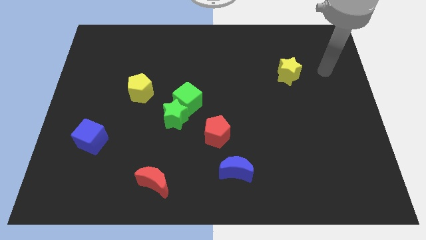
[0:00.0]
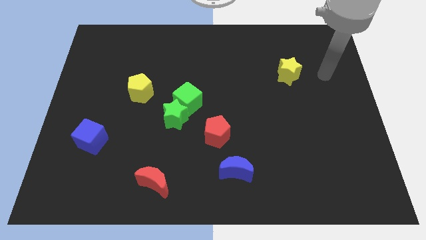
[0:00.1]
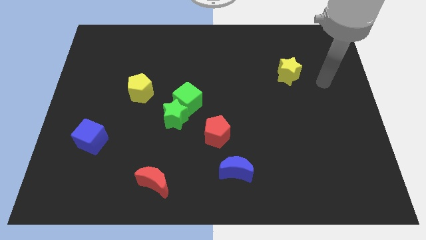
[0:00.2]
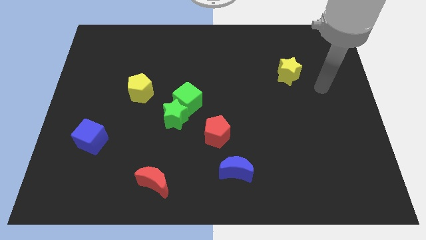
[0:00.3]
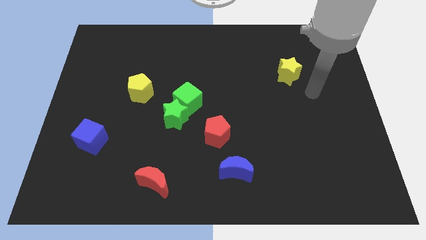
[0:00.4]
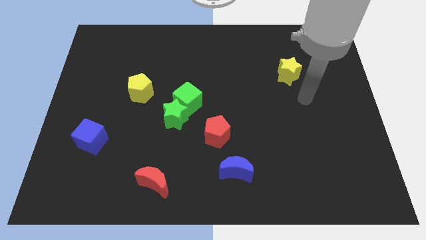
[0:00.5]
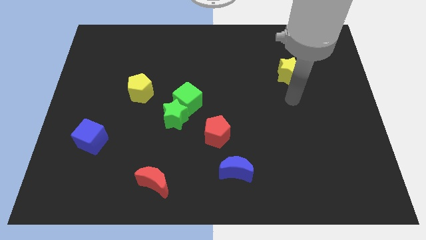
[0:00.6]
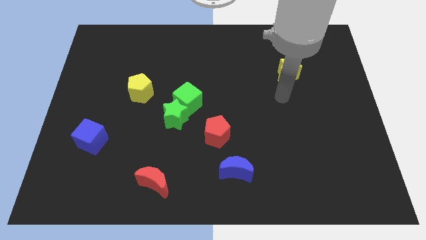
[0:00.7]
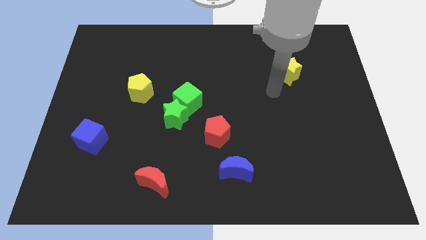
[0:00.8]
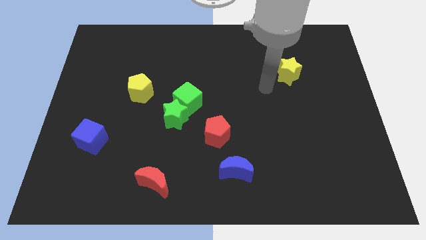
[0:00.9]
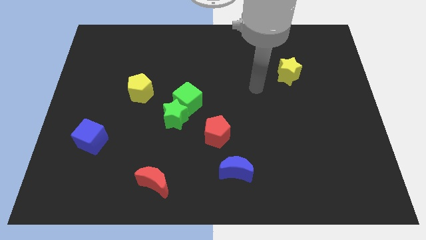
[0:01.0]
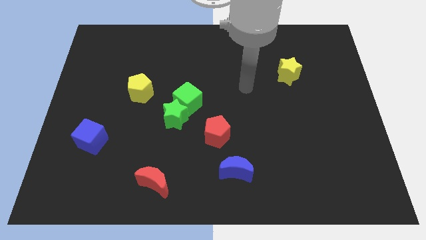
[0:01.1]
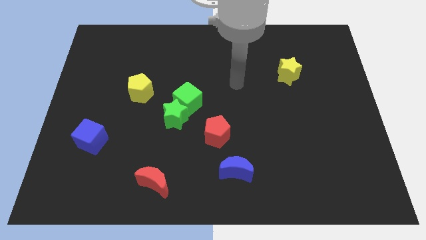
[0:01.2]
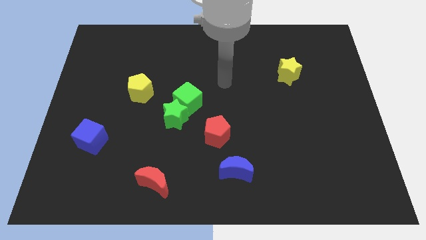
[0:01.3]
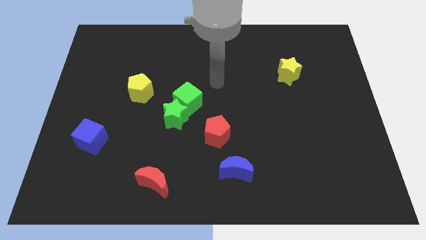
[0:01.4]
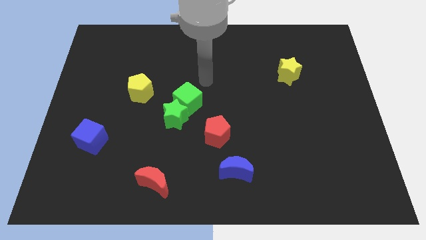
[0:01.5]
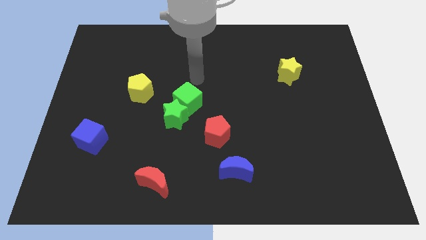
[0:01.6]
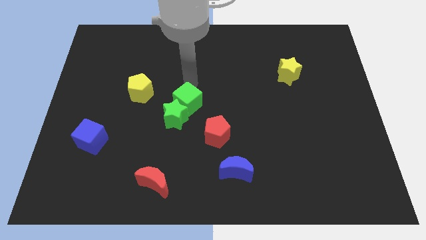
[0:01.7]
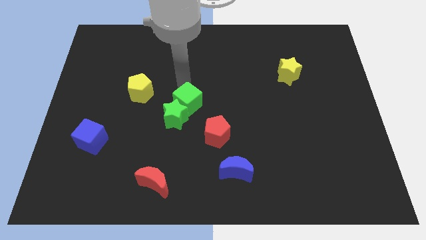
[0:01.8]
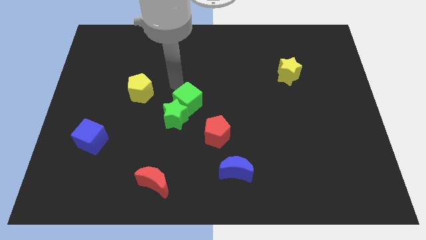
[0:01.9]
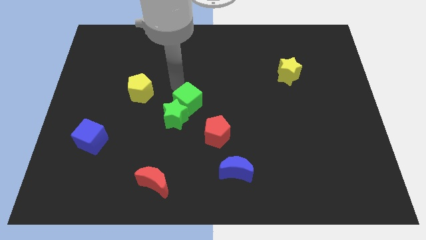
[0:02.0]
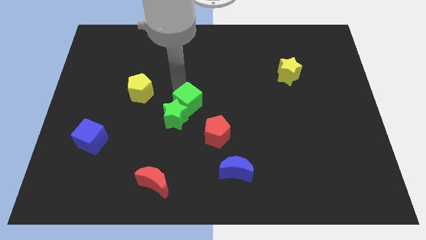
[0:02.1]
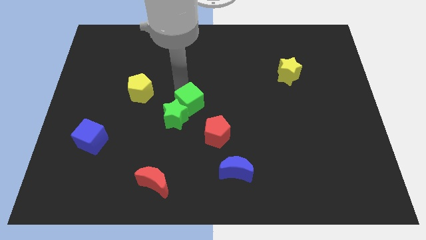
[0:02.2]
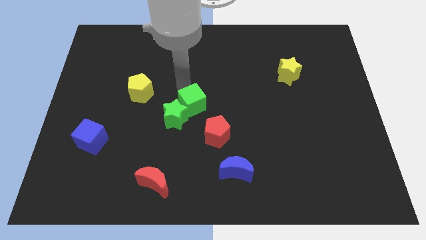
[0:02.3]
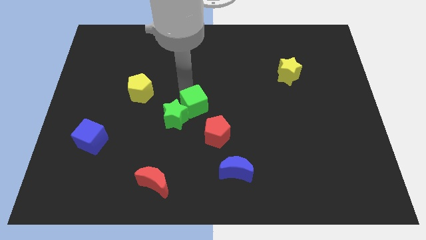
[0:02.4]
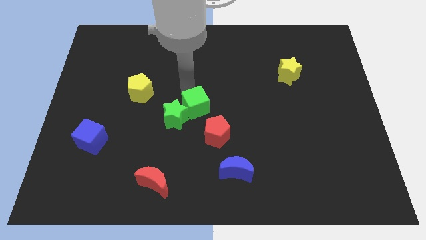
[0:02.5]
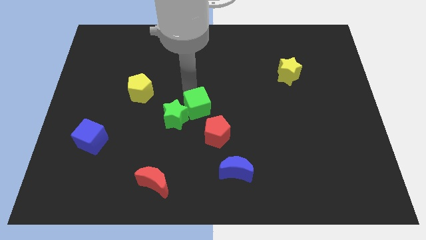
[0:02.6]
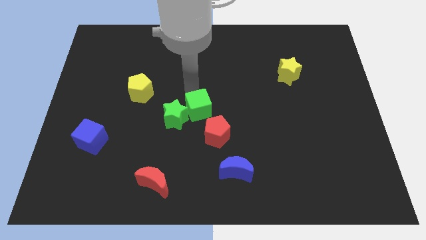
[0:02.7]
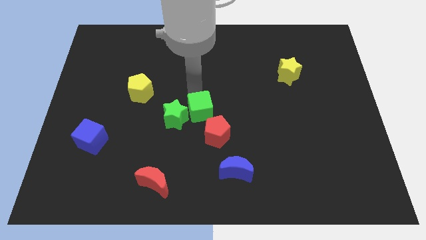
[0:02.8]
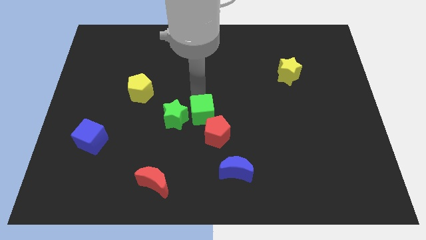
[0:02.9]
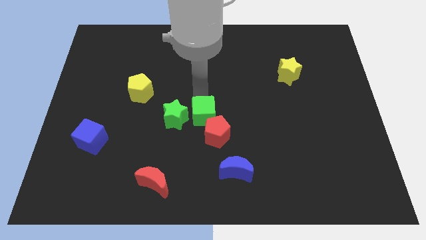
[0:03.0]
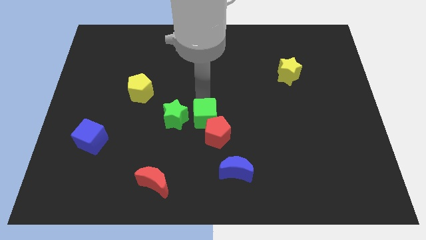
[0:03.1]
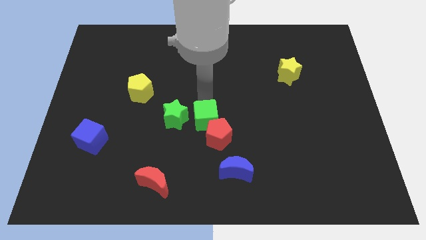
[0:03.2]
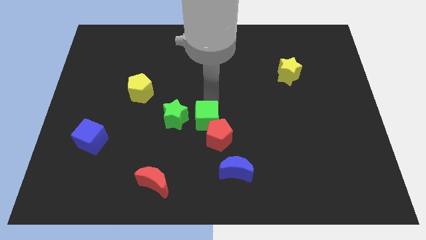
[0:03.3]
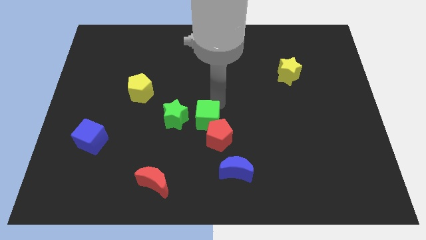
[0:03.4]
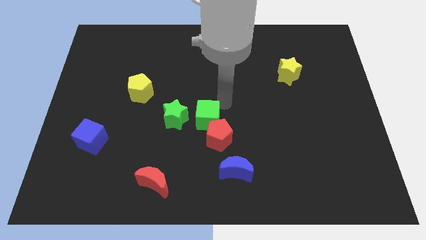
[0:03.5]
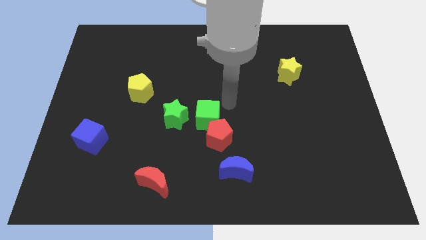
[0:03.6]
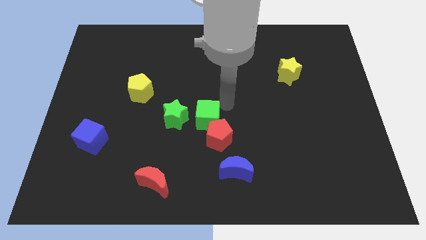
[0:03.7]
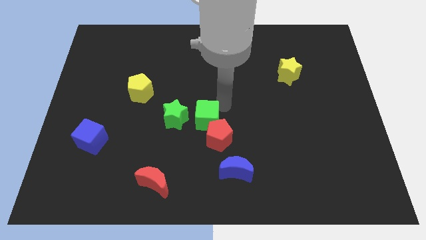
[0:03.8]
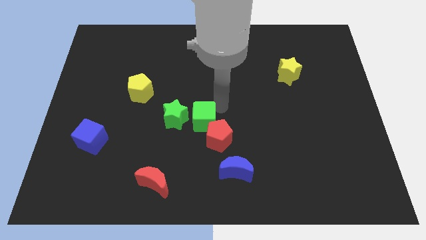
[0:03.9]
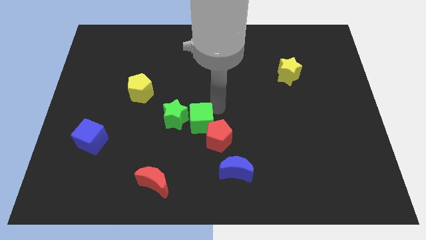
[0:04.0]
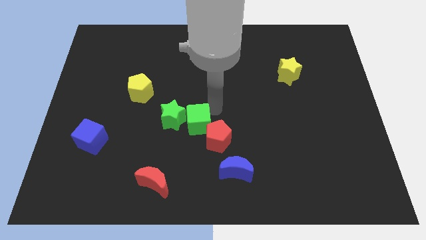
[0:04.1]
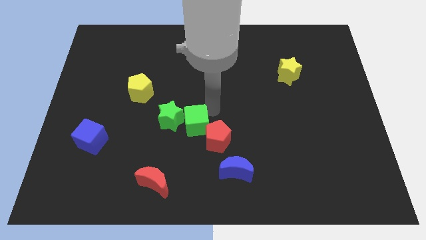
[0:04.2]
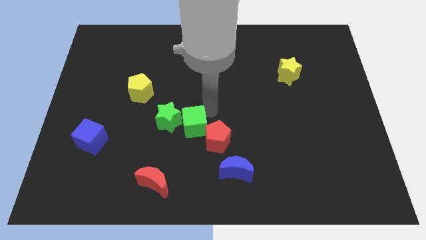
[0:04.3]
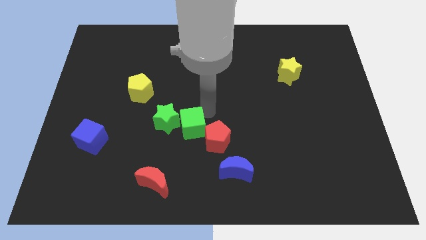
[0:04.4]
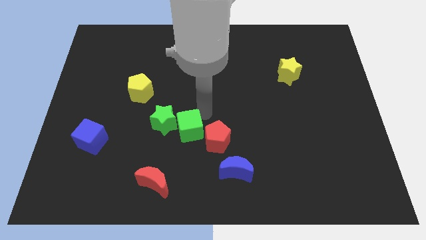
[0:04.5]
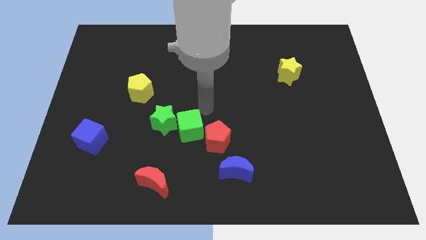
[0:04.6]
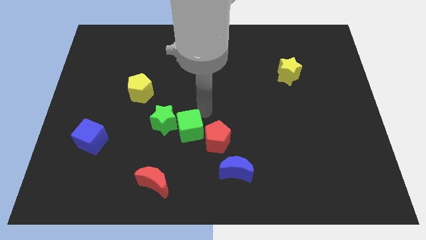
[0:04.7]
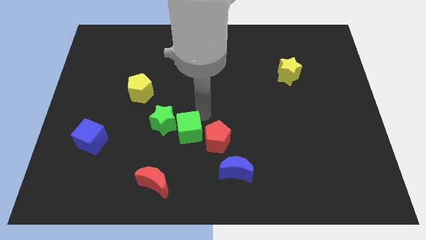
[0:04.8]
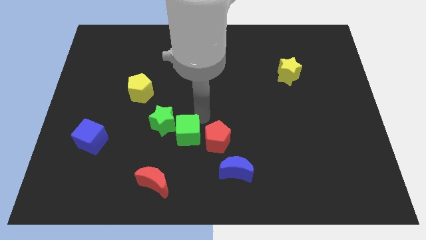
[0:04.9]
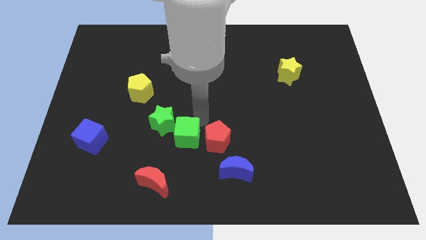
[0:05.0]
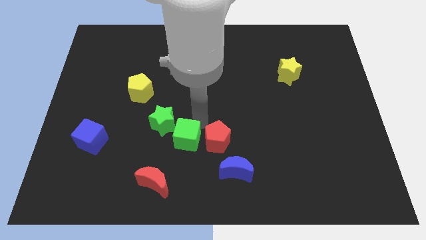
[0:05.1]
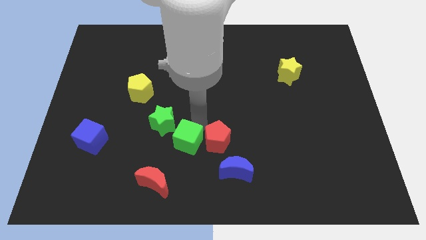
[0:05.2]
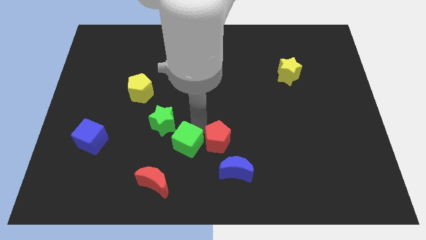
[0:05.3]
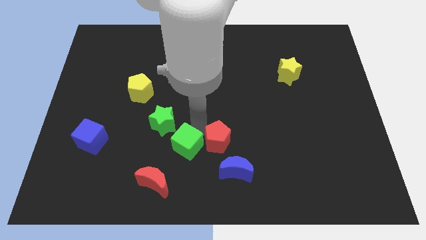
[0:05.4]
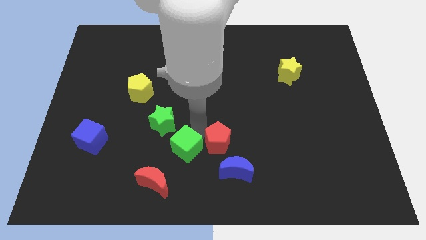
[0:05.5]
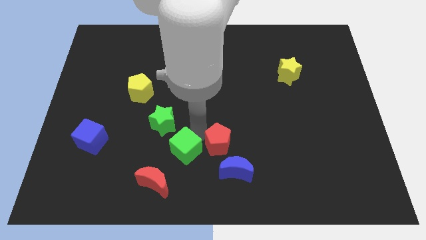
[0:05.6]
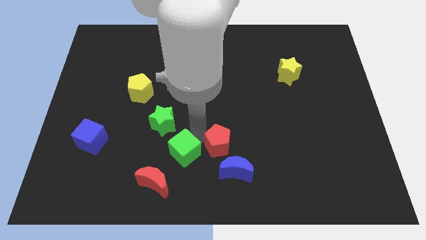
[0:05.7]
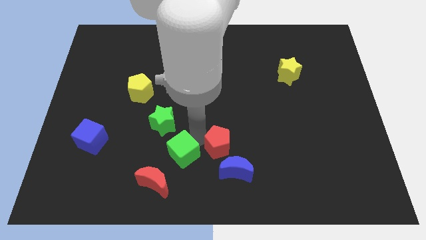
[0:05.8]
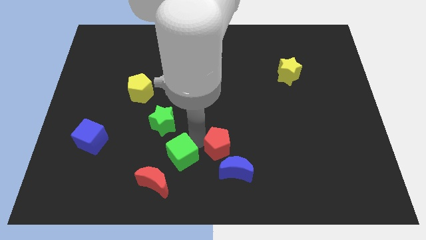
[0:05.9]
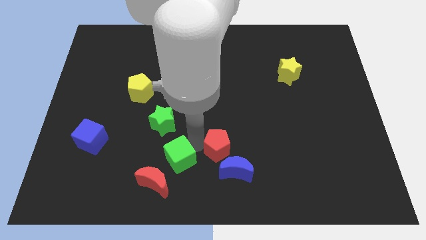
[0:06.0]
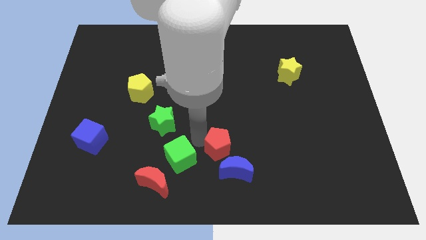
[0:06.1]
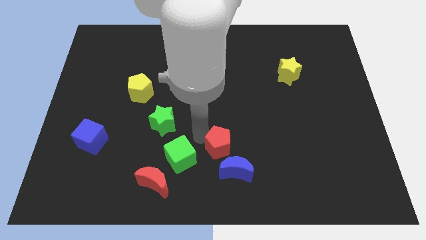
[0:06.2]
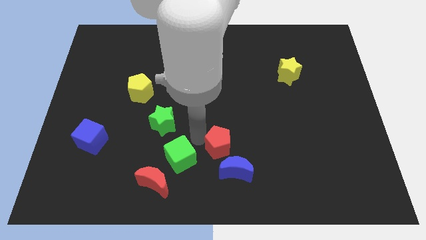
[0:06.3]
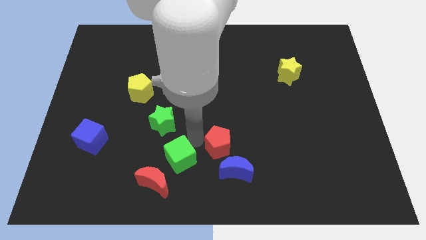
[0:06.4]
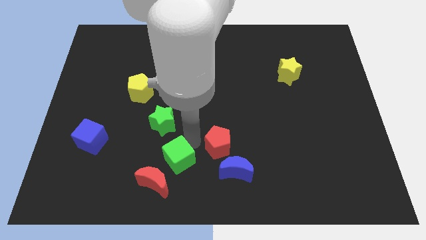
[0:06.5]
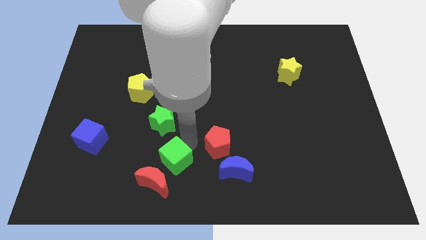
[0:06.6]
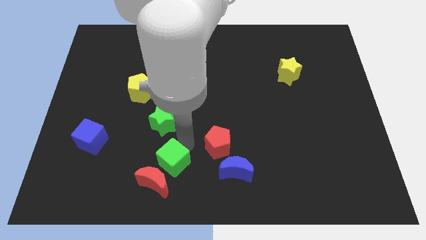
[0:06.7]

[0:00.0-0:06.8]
put the green cube towards the red moon

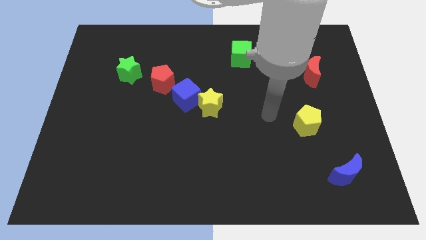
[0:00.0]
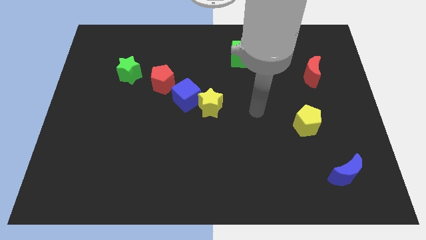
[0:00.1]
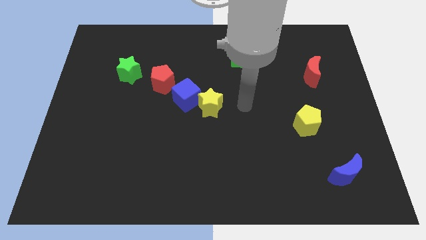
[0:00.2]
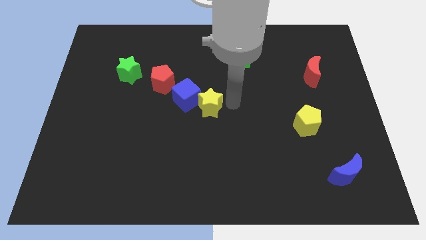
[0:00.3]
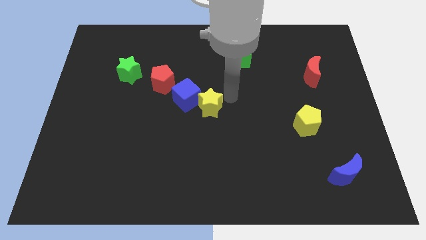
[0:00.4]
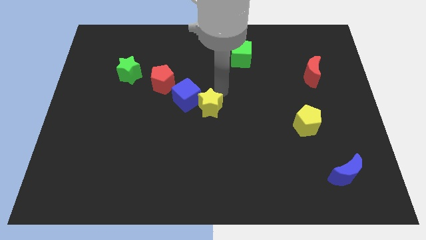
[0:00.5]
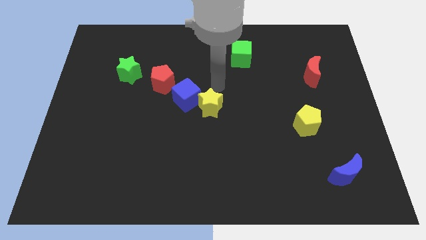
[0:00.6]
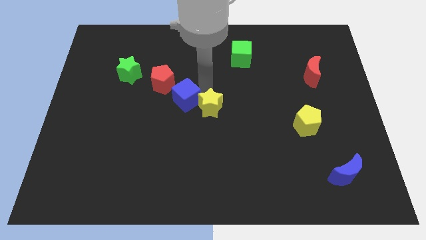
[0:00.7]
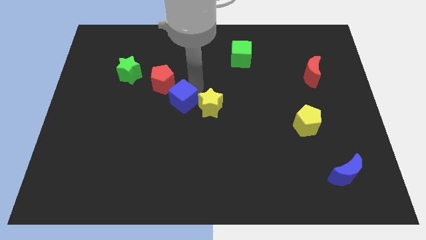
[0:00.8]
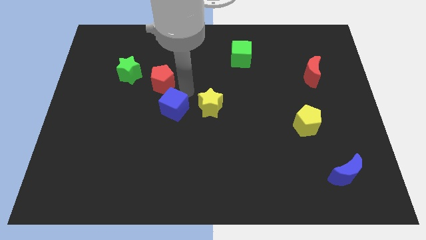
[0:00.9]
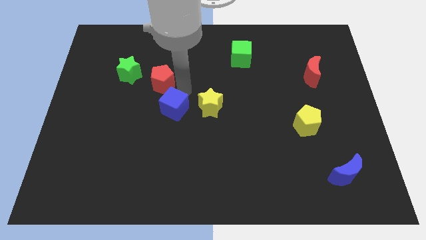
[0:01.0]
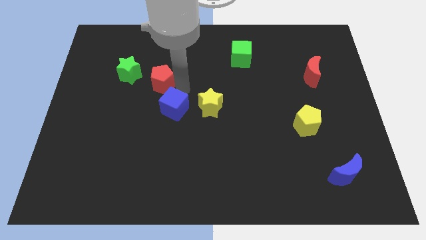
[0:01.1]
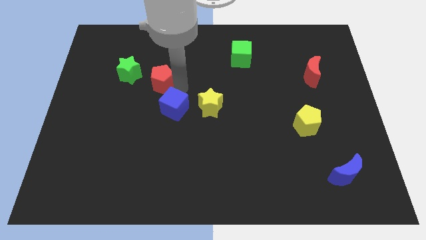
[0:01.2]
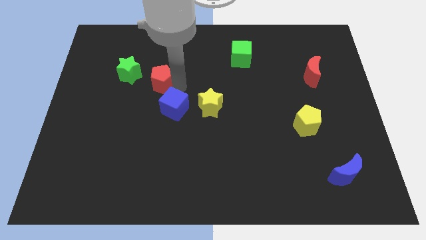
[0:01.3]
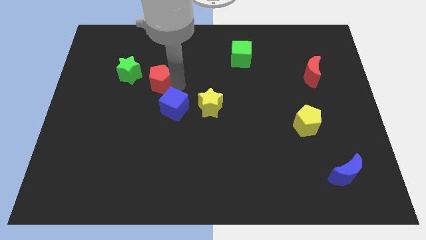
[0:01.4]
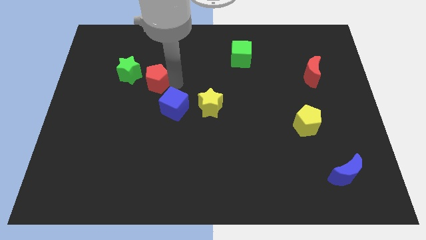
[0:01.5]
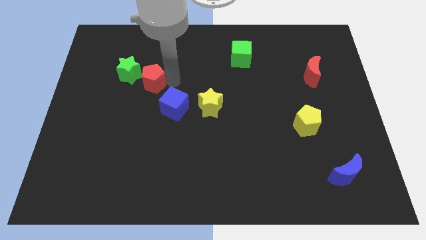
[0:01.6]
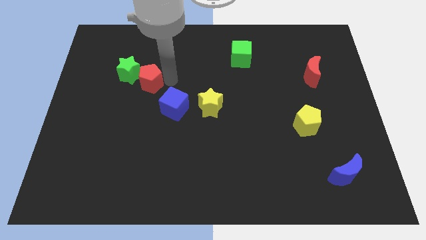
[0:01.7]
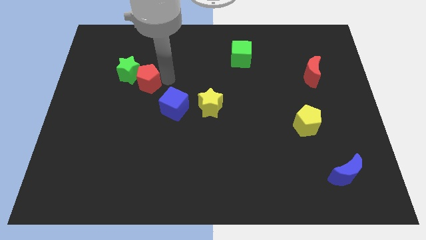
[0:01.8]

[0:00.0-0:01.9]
put the red pentagon towards the green star
